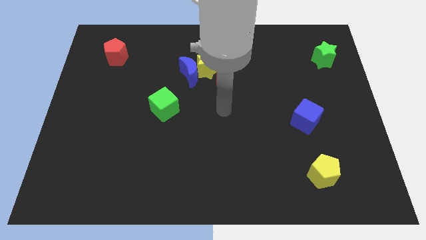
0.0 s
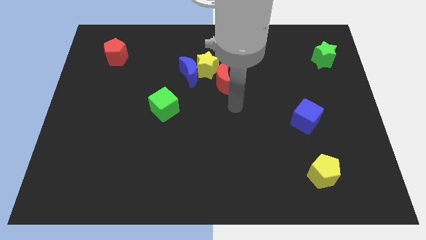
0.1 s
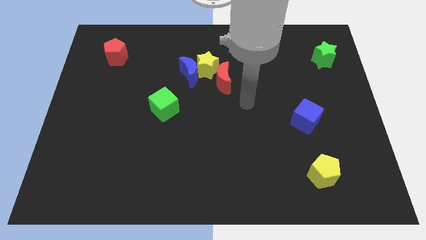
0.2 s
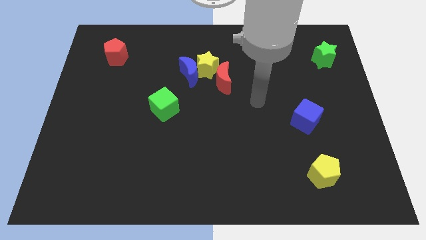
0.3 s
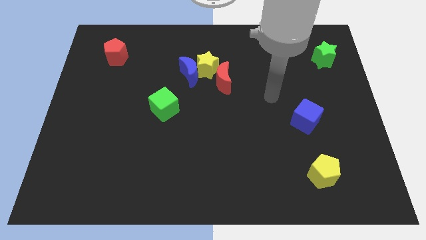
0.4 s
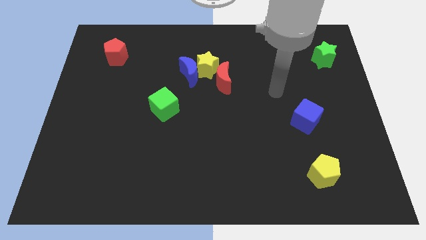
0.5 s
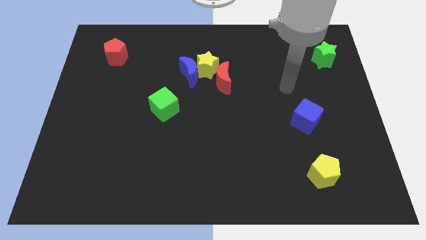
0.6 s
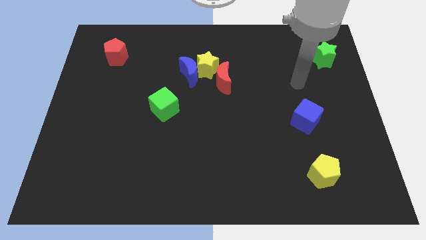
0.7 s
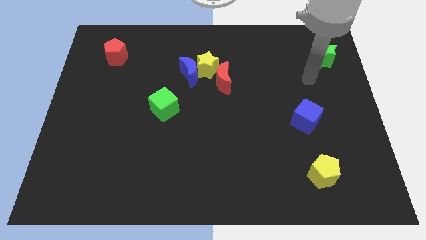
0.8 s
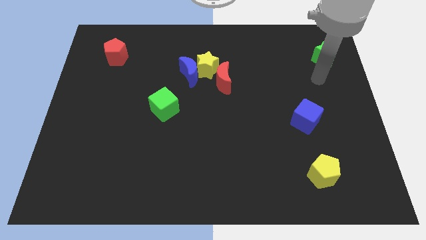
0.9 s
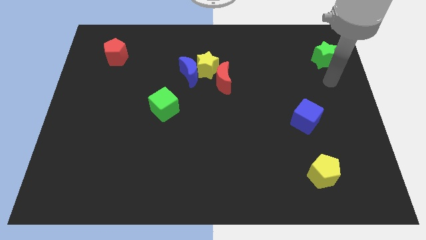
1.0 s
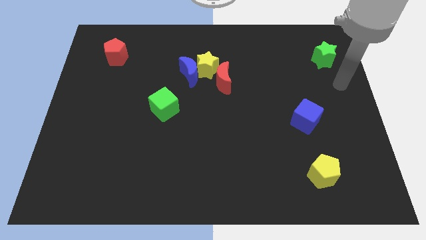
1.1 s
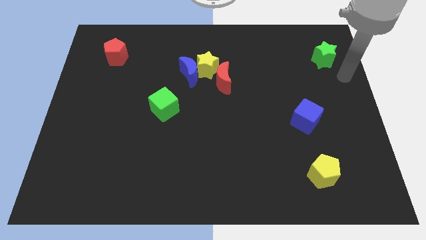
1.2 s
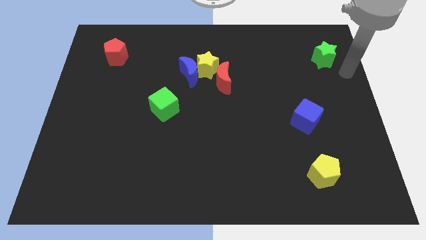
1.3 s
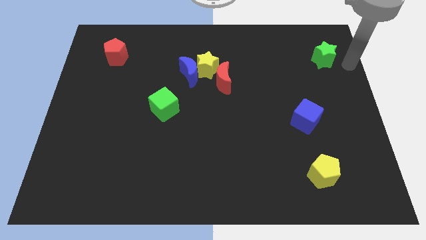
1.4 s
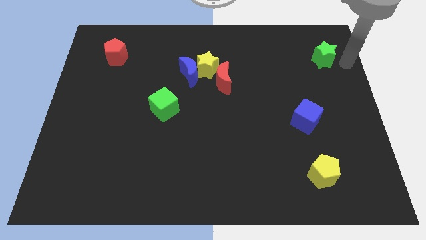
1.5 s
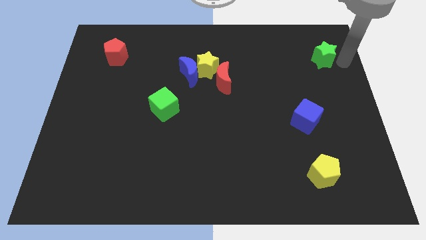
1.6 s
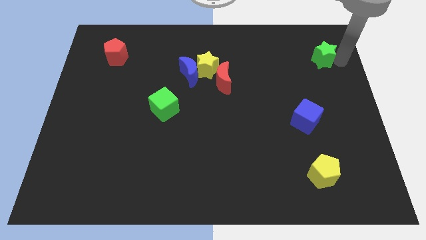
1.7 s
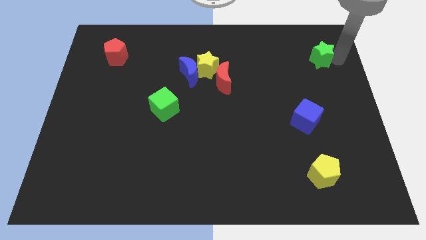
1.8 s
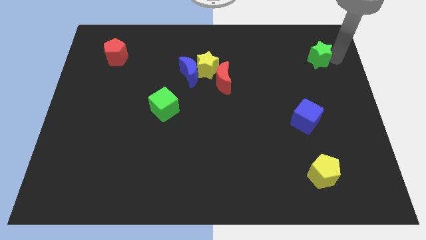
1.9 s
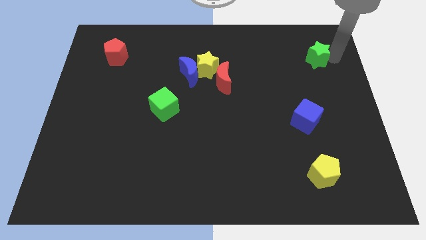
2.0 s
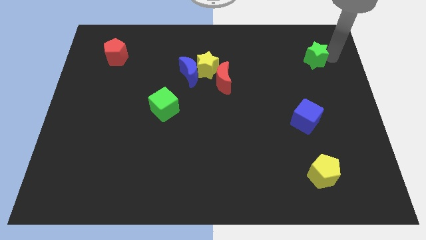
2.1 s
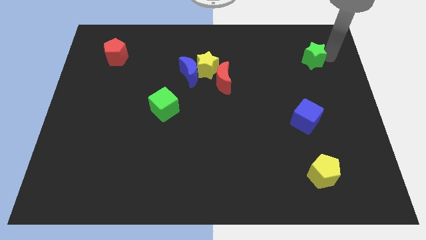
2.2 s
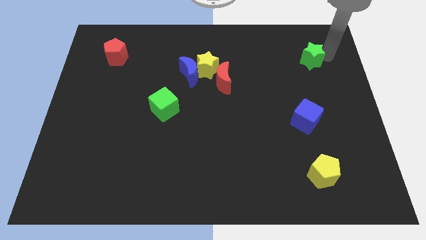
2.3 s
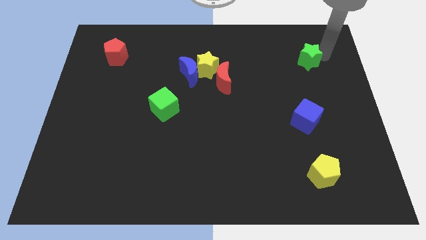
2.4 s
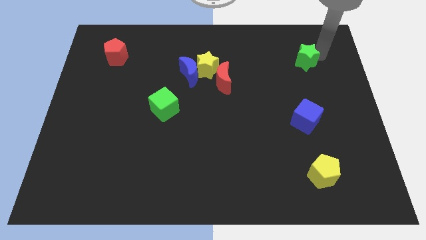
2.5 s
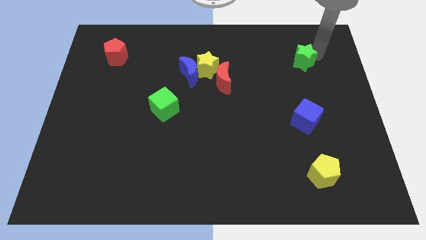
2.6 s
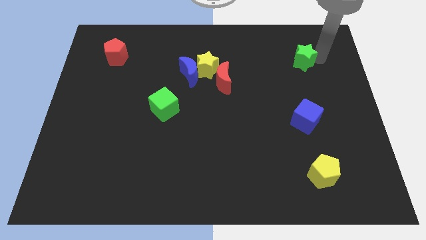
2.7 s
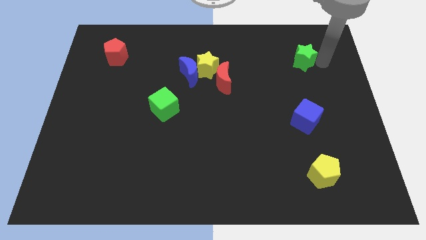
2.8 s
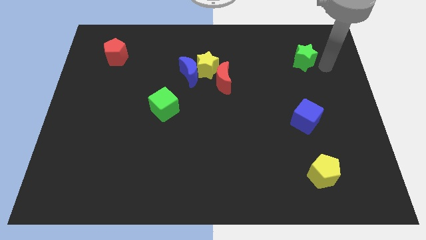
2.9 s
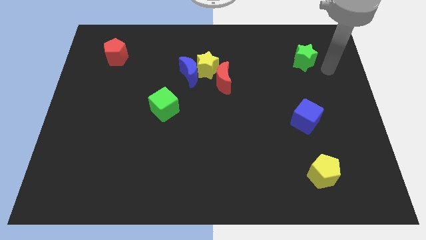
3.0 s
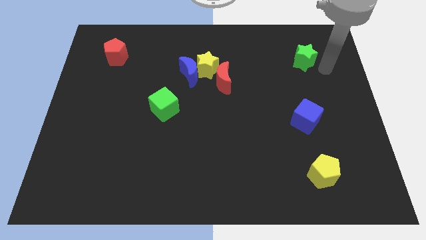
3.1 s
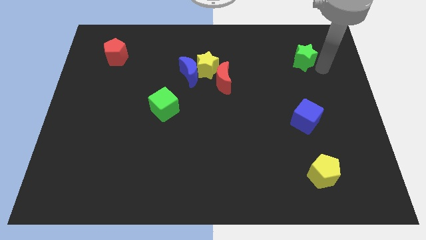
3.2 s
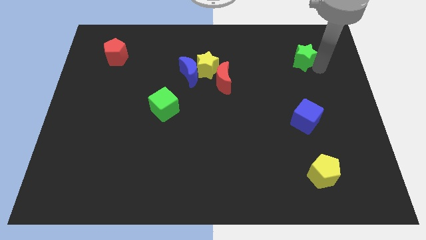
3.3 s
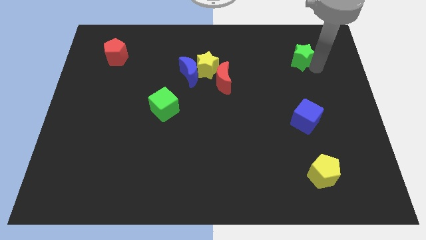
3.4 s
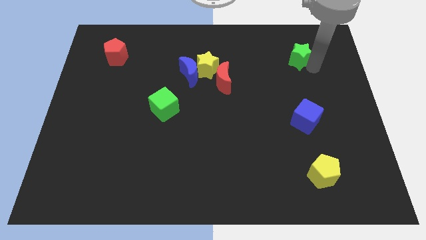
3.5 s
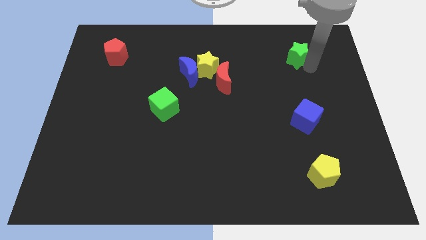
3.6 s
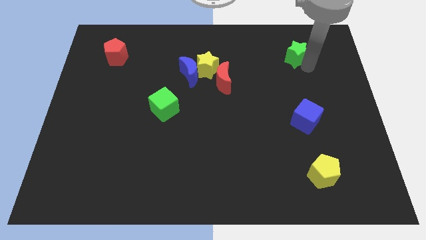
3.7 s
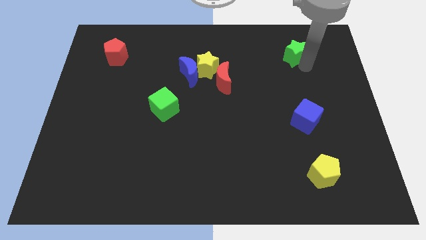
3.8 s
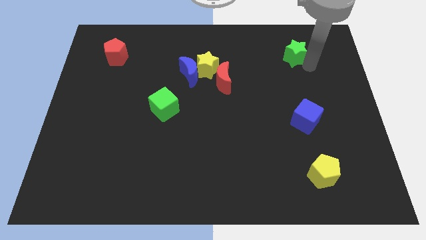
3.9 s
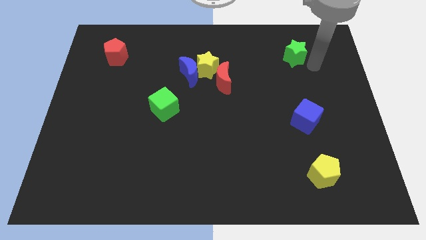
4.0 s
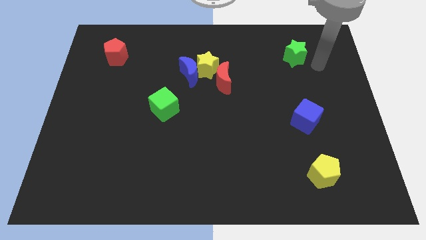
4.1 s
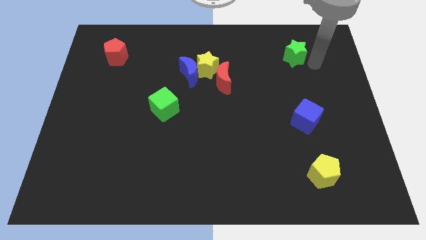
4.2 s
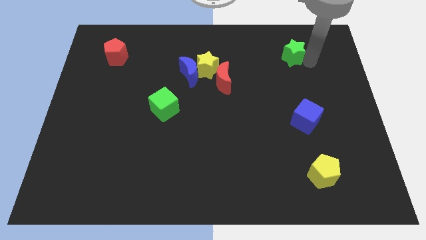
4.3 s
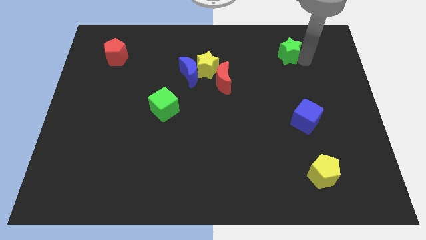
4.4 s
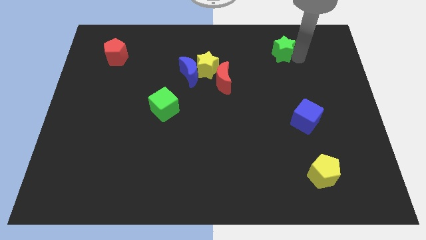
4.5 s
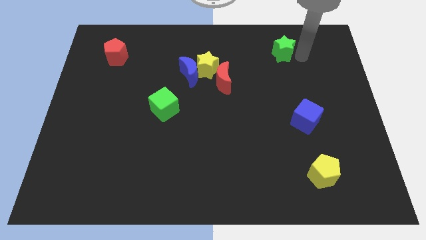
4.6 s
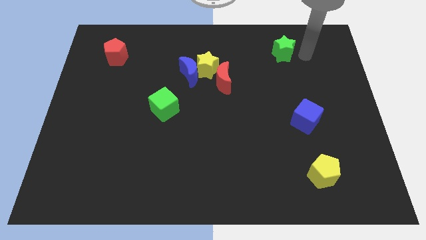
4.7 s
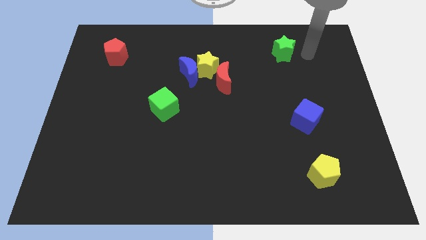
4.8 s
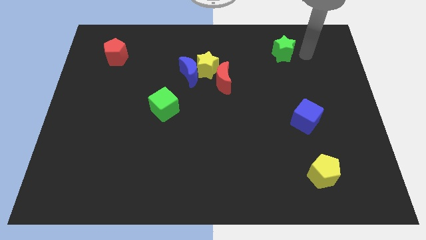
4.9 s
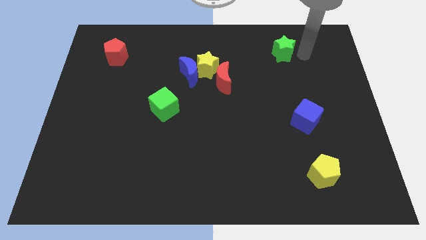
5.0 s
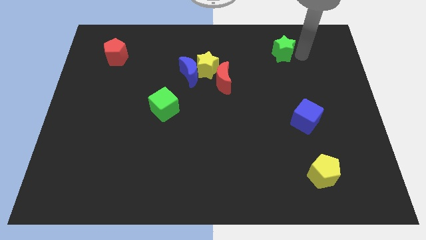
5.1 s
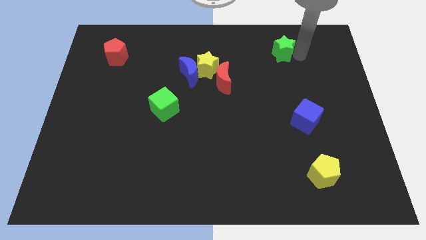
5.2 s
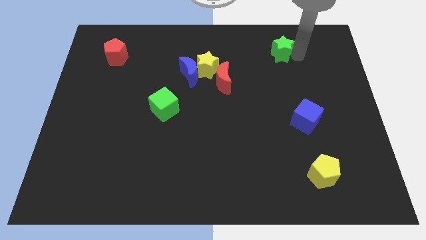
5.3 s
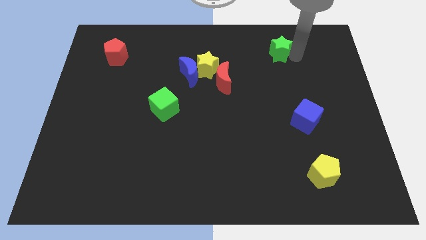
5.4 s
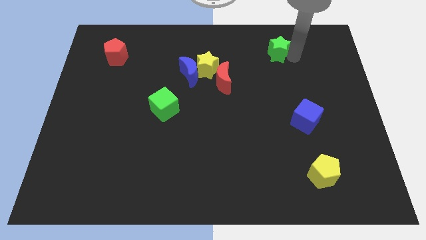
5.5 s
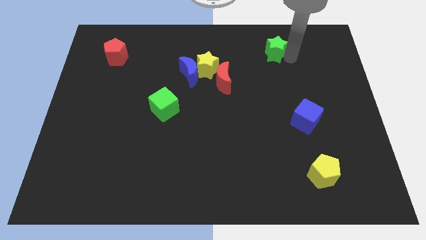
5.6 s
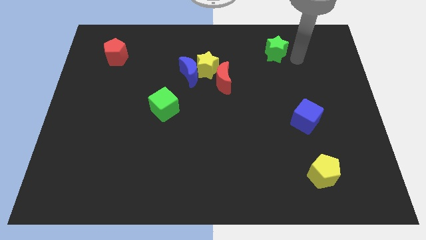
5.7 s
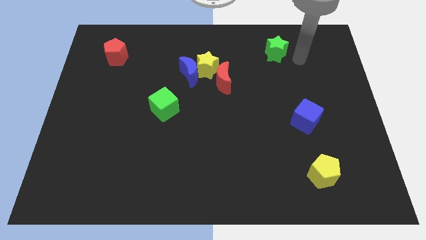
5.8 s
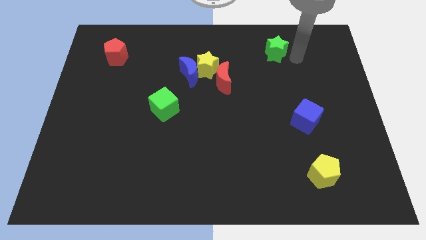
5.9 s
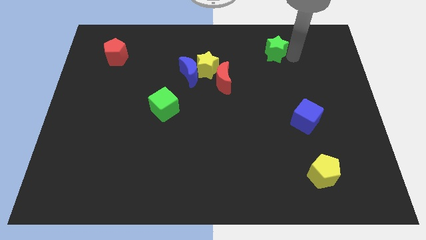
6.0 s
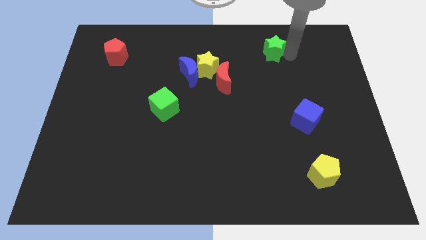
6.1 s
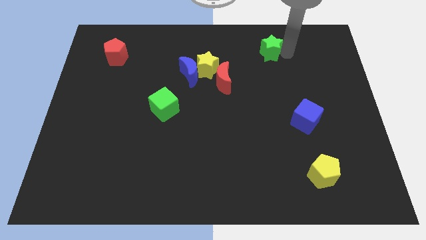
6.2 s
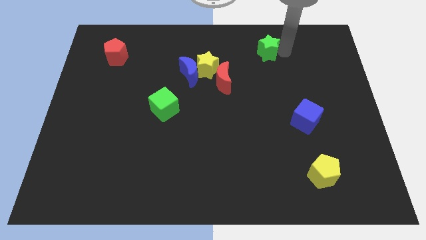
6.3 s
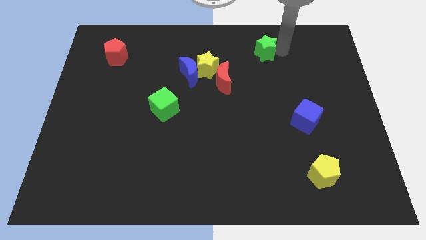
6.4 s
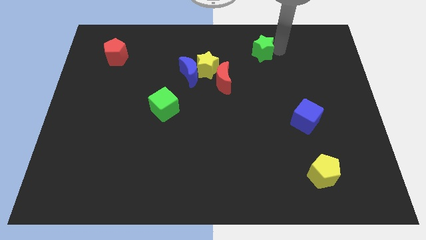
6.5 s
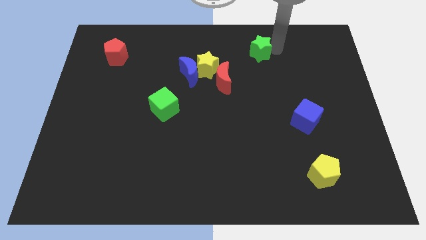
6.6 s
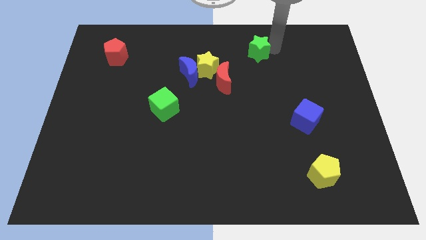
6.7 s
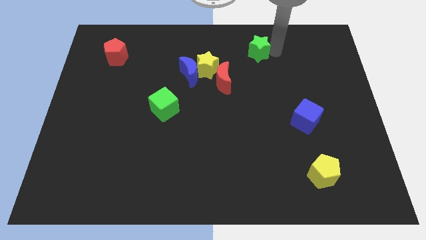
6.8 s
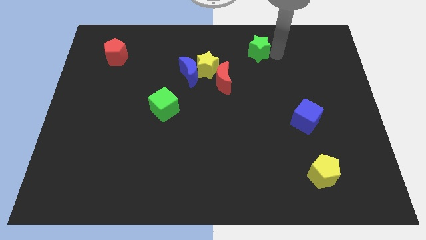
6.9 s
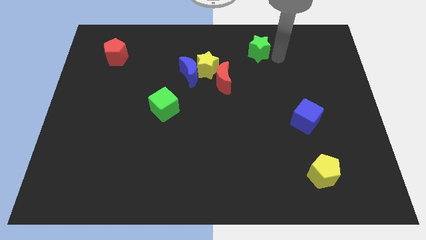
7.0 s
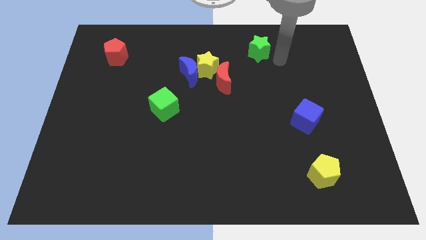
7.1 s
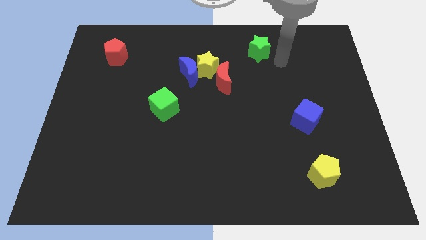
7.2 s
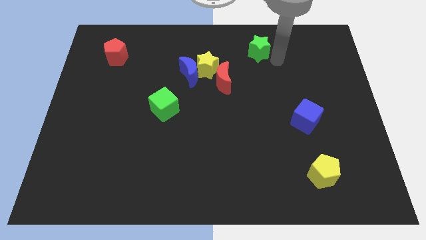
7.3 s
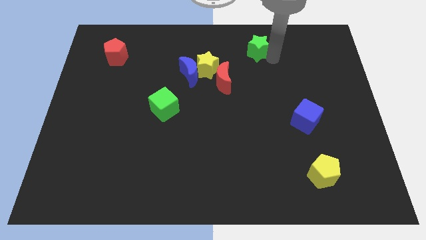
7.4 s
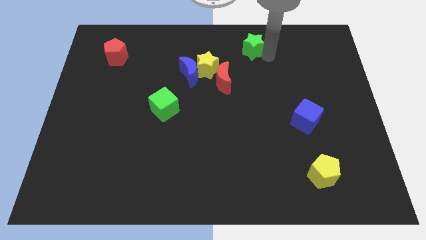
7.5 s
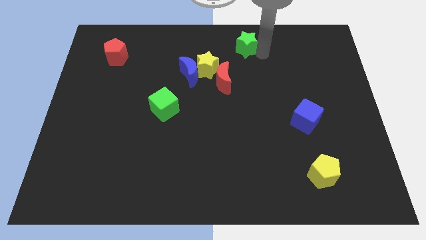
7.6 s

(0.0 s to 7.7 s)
slide the green star to the towards your base
